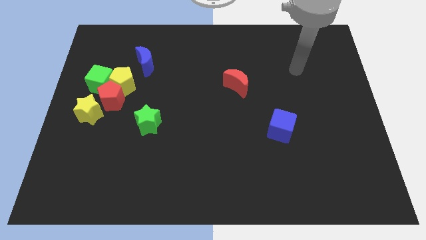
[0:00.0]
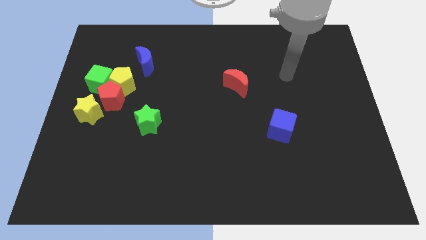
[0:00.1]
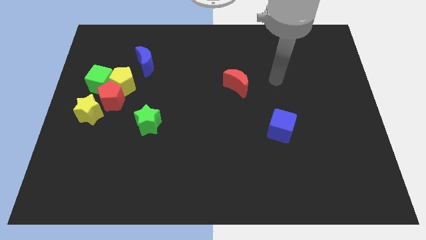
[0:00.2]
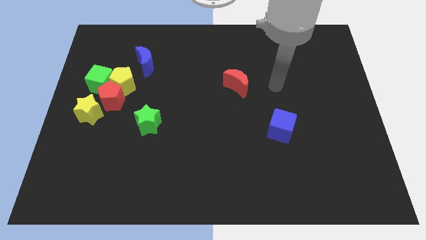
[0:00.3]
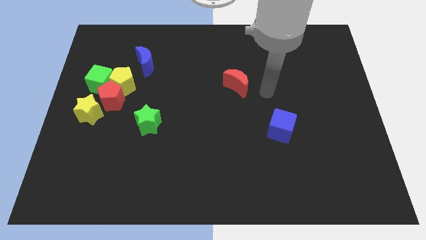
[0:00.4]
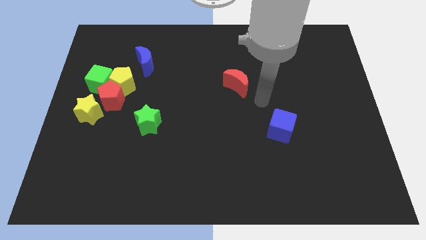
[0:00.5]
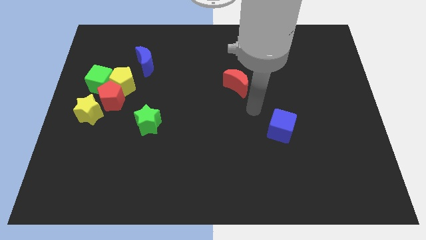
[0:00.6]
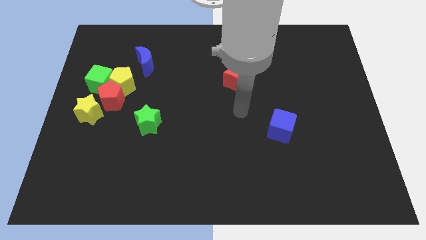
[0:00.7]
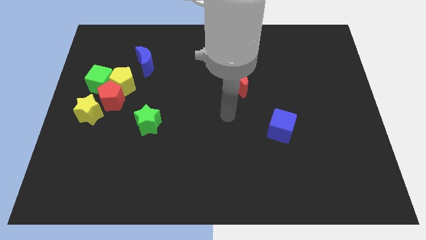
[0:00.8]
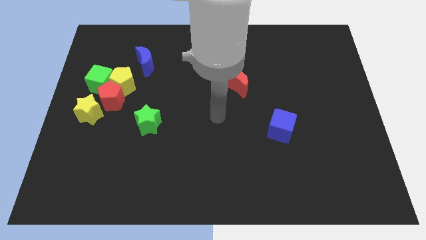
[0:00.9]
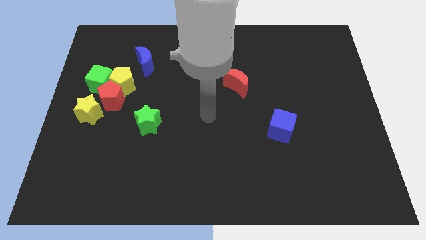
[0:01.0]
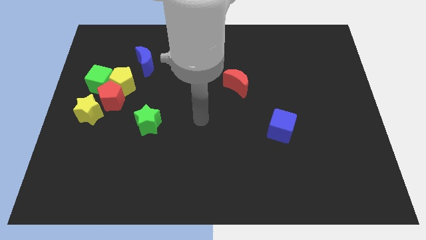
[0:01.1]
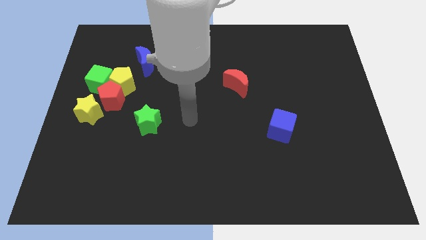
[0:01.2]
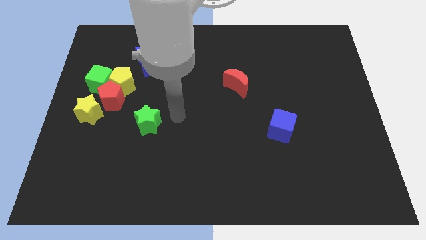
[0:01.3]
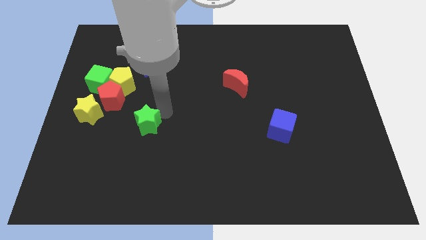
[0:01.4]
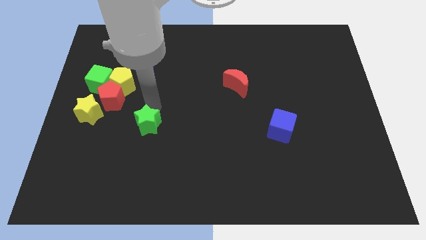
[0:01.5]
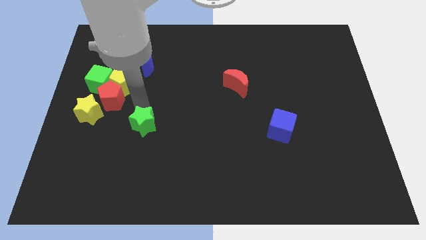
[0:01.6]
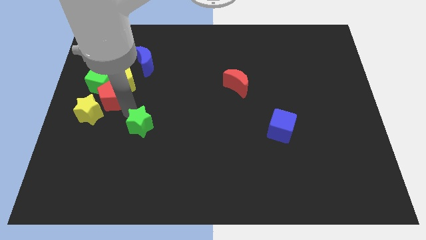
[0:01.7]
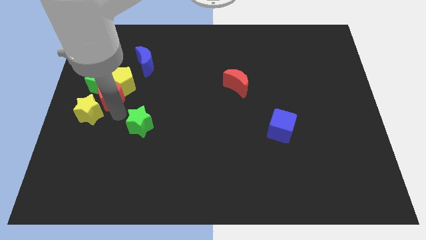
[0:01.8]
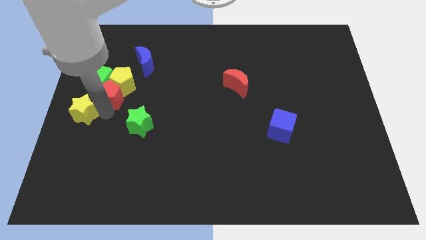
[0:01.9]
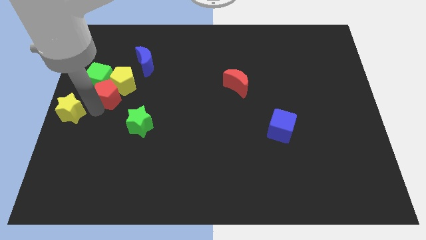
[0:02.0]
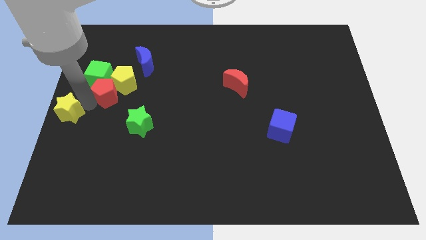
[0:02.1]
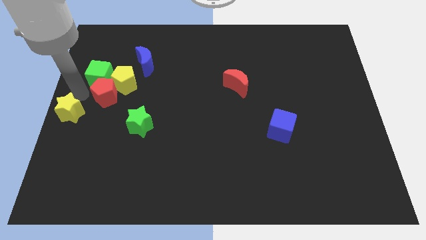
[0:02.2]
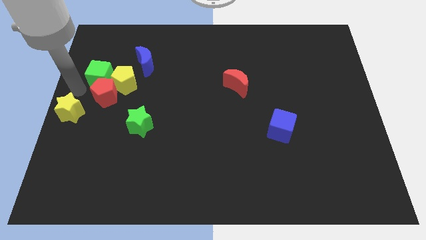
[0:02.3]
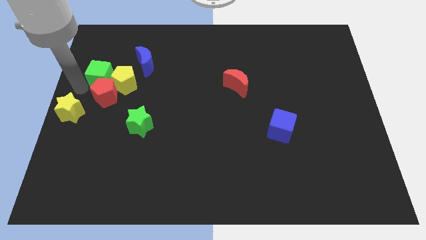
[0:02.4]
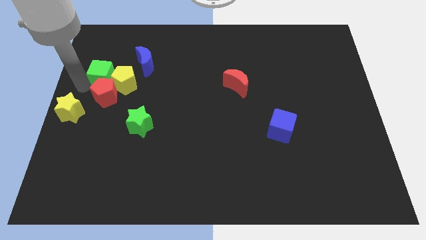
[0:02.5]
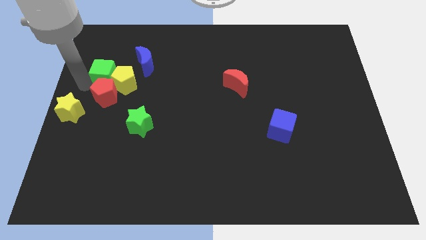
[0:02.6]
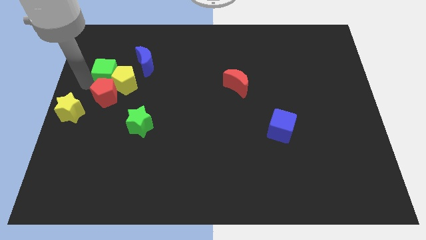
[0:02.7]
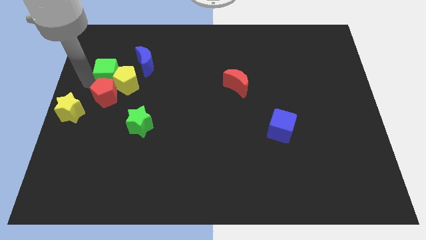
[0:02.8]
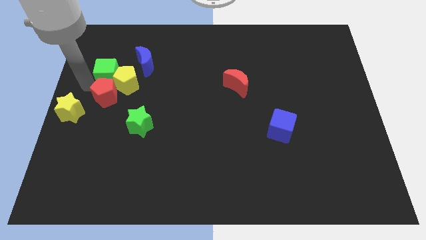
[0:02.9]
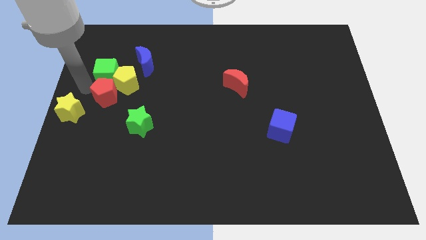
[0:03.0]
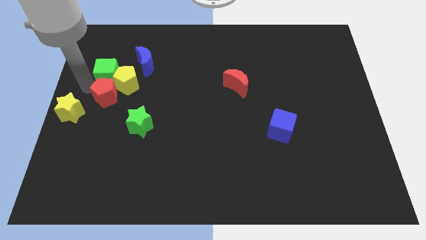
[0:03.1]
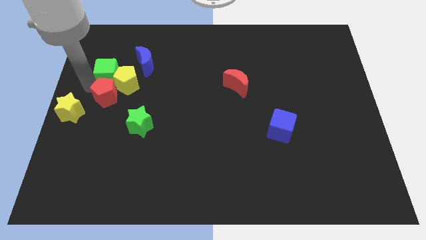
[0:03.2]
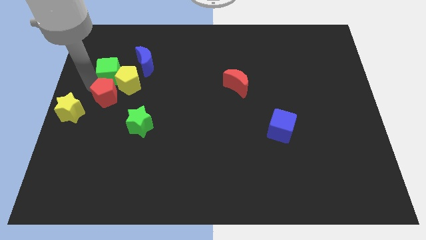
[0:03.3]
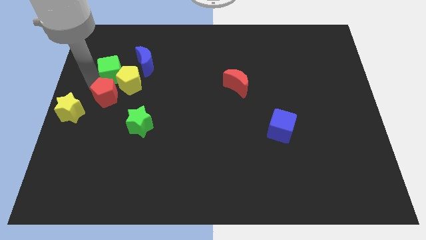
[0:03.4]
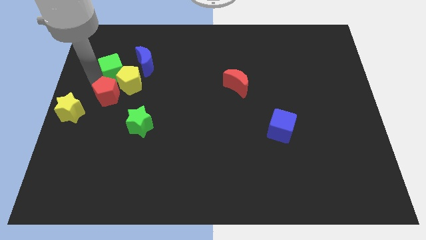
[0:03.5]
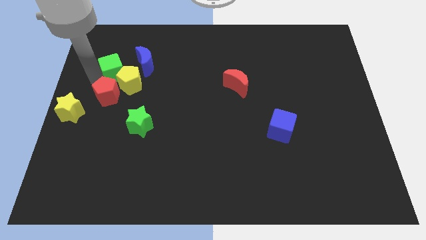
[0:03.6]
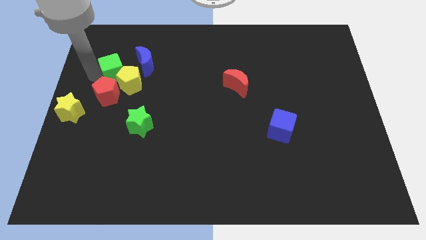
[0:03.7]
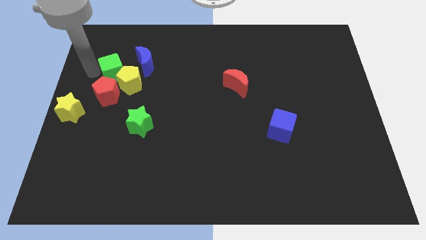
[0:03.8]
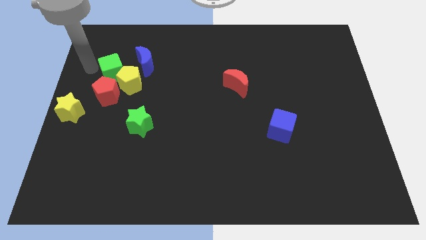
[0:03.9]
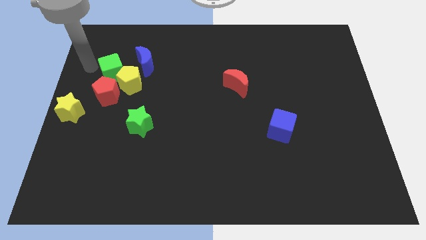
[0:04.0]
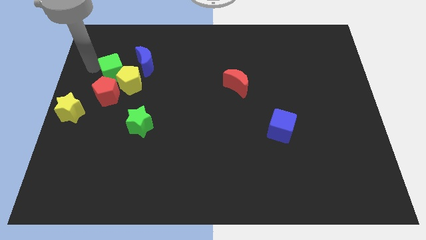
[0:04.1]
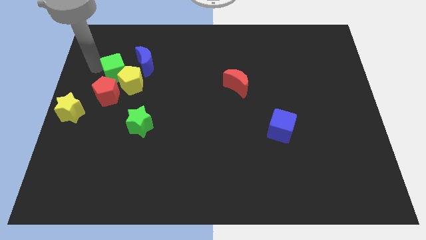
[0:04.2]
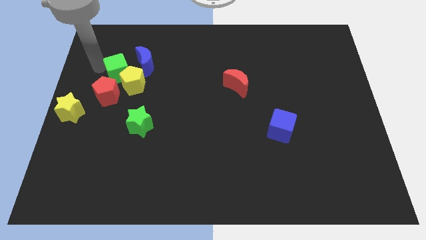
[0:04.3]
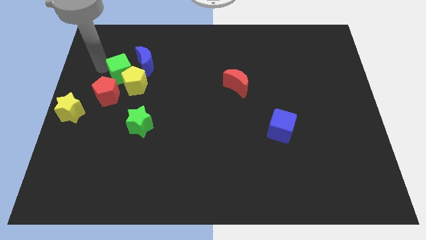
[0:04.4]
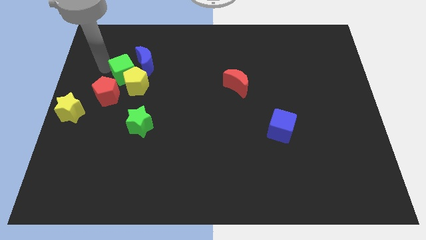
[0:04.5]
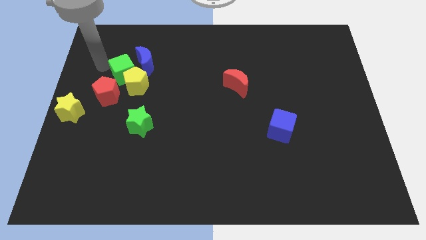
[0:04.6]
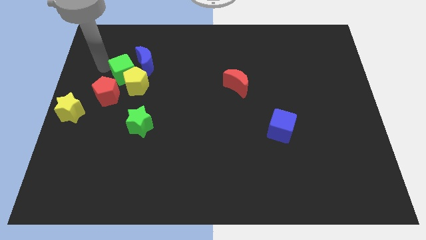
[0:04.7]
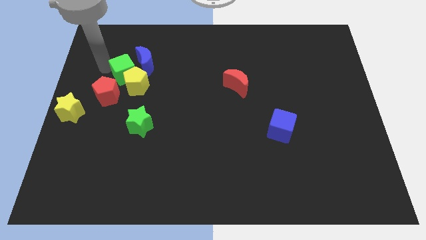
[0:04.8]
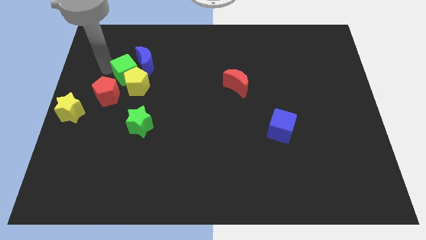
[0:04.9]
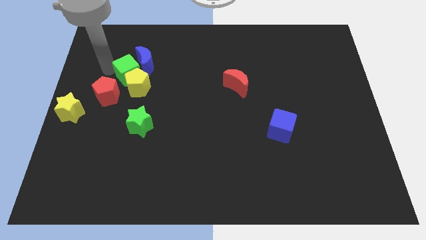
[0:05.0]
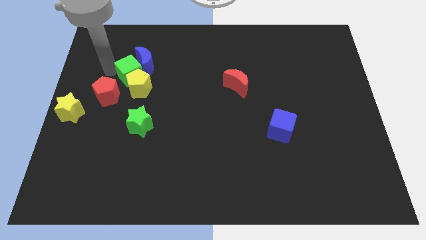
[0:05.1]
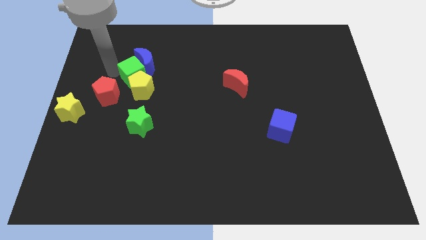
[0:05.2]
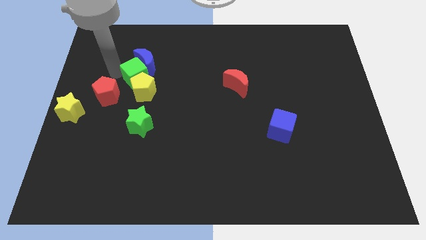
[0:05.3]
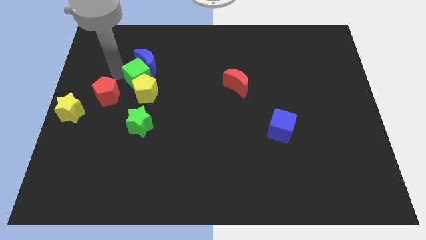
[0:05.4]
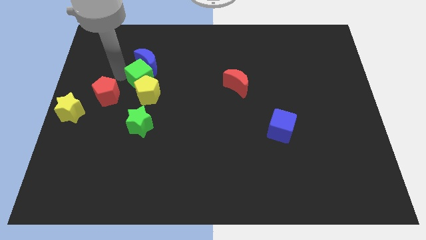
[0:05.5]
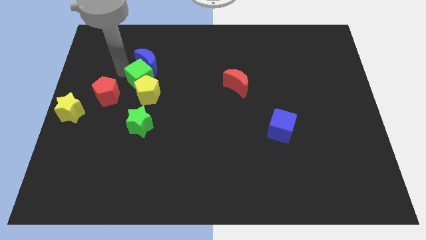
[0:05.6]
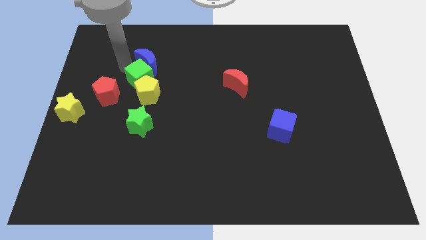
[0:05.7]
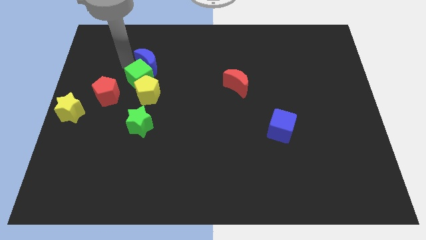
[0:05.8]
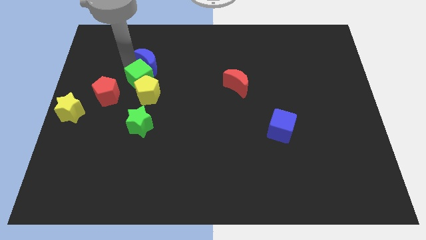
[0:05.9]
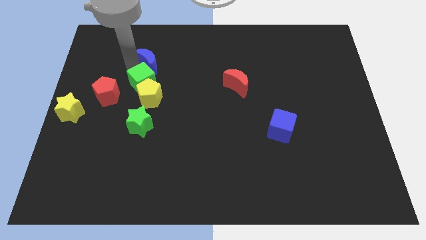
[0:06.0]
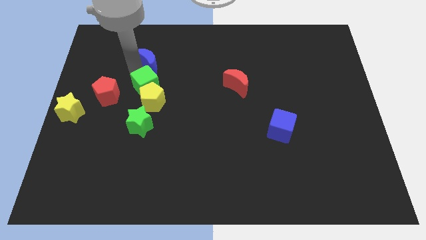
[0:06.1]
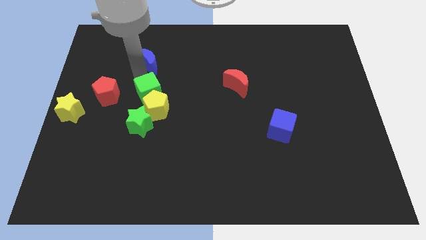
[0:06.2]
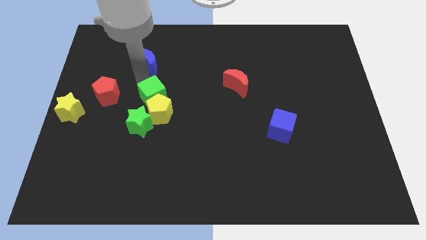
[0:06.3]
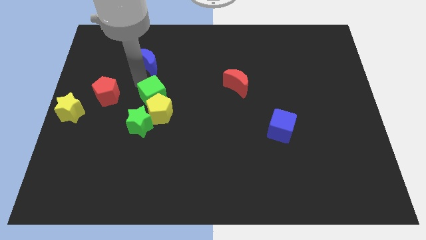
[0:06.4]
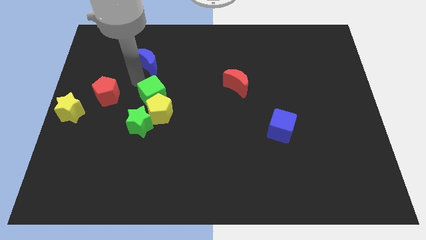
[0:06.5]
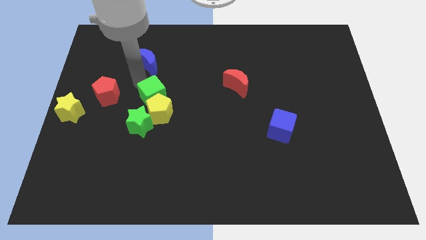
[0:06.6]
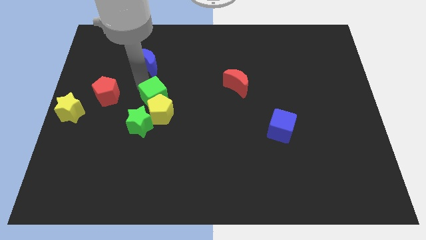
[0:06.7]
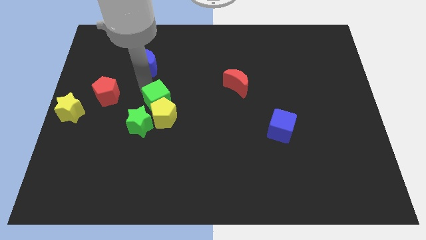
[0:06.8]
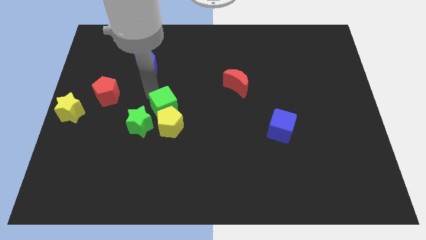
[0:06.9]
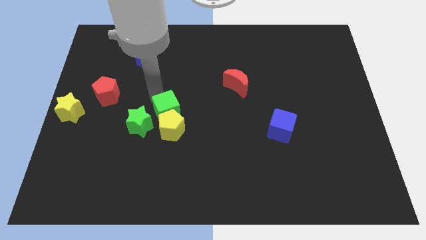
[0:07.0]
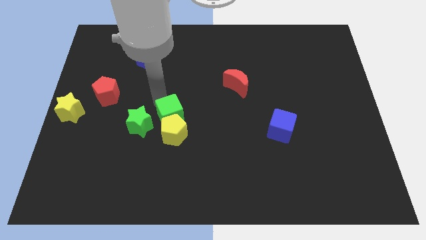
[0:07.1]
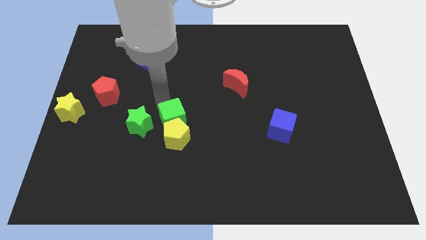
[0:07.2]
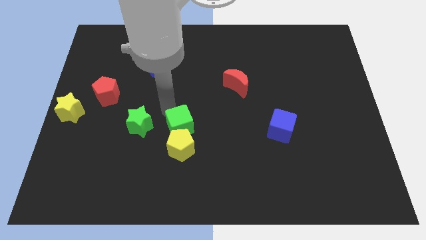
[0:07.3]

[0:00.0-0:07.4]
push the green cube downwards and right diagonally

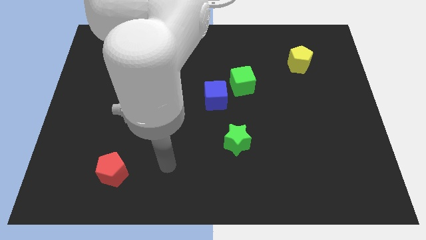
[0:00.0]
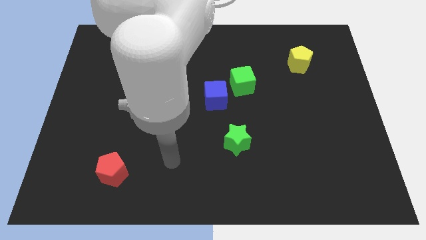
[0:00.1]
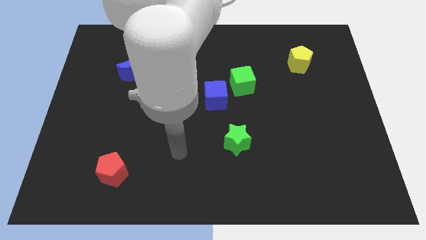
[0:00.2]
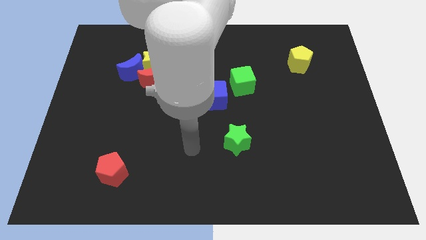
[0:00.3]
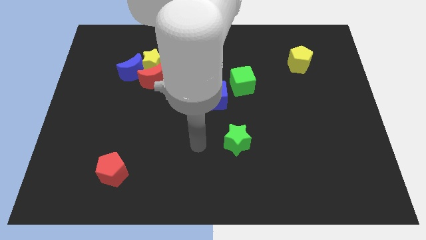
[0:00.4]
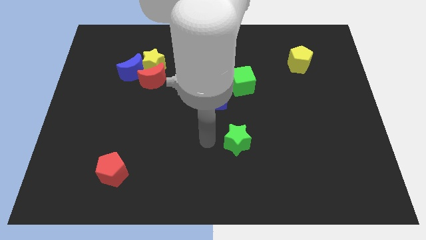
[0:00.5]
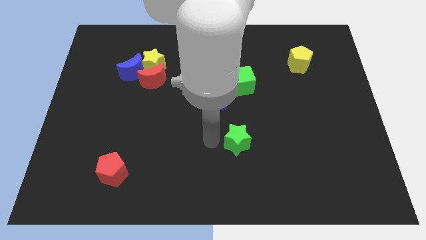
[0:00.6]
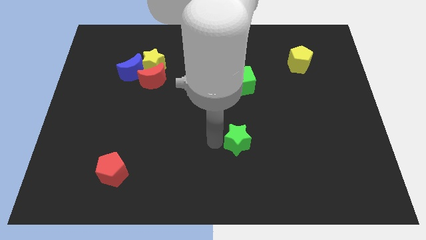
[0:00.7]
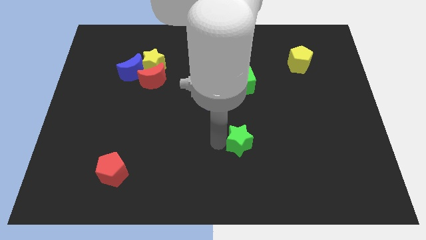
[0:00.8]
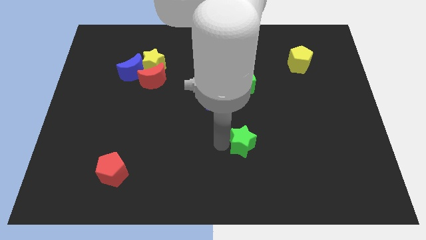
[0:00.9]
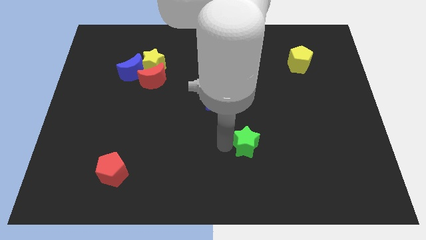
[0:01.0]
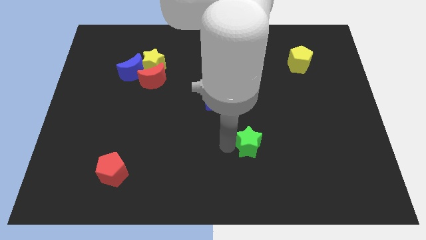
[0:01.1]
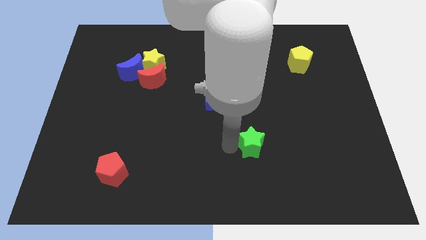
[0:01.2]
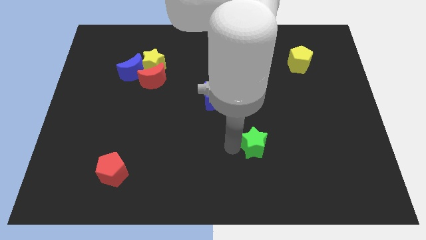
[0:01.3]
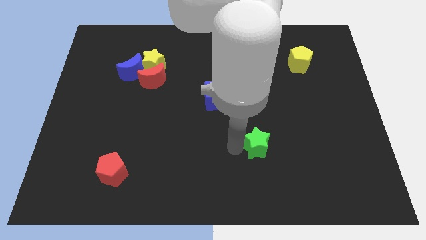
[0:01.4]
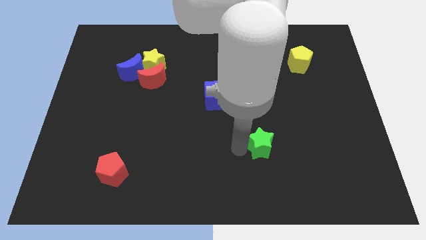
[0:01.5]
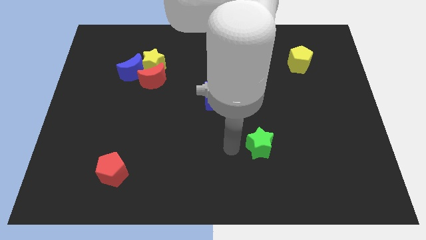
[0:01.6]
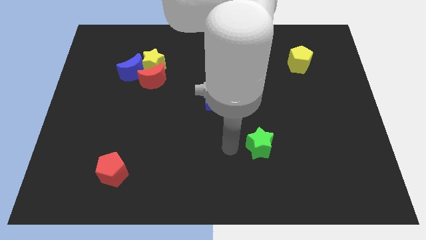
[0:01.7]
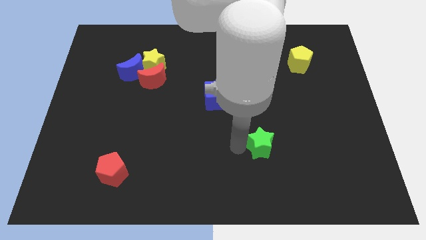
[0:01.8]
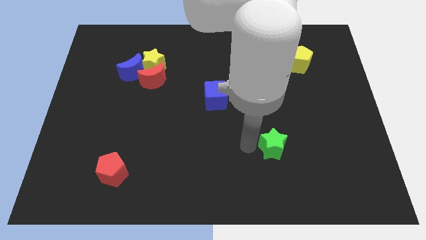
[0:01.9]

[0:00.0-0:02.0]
push the green star a little bit to the right
